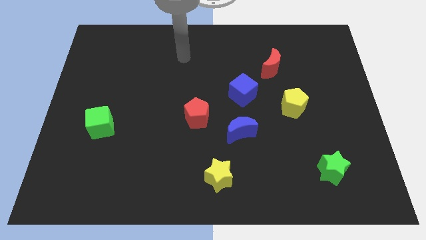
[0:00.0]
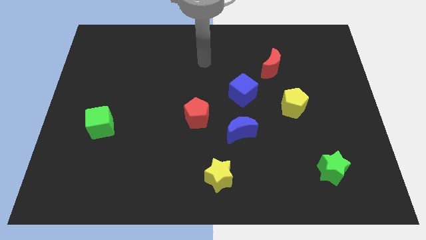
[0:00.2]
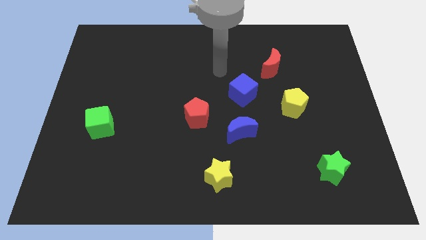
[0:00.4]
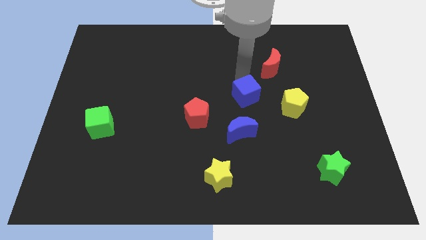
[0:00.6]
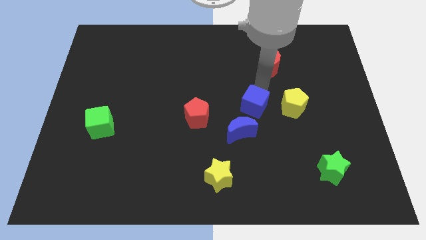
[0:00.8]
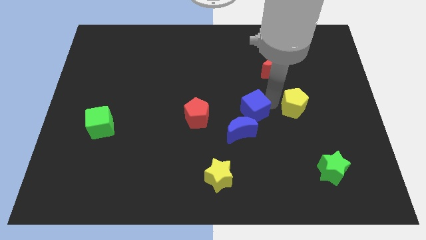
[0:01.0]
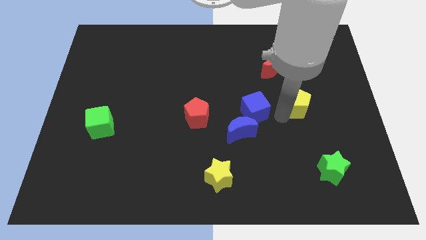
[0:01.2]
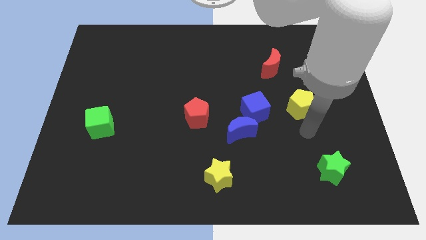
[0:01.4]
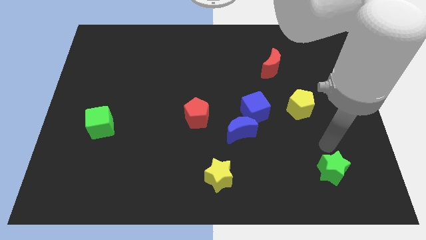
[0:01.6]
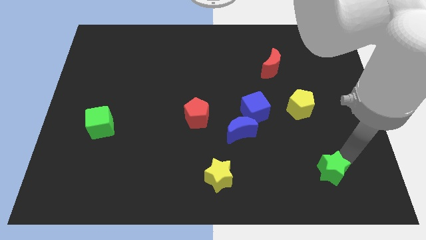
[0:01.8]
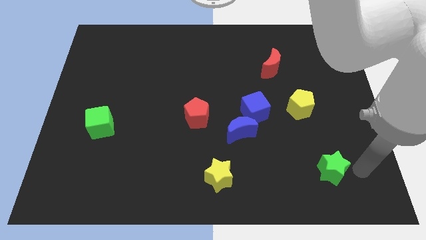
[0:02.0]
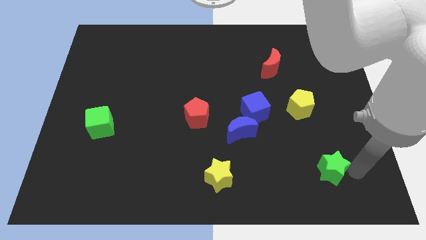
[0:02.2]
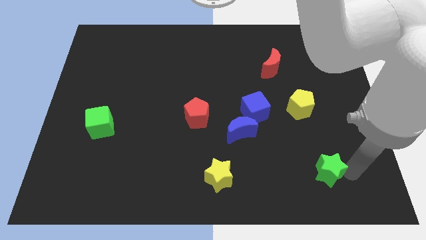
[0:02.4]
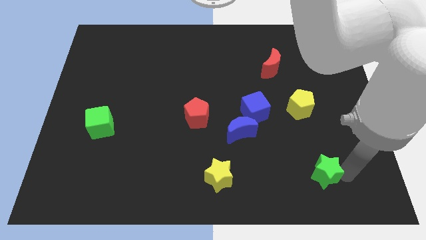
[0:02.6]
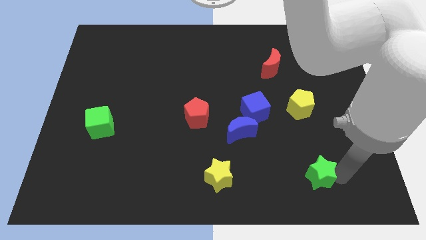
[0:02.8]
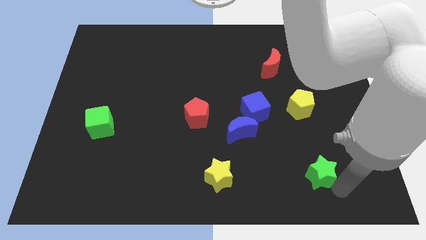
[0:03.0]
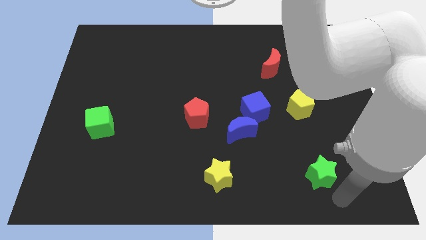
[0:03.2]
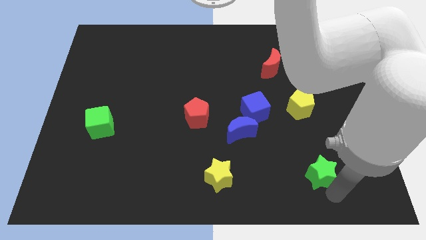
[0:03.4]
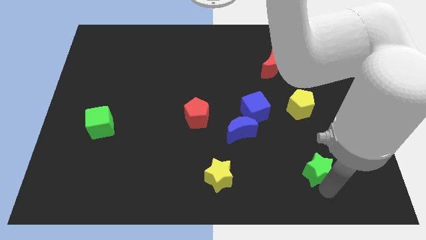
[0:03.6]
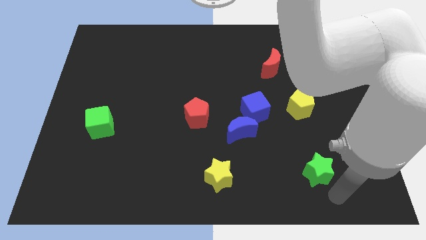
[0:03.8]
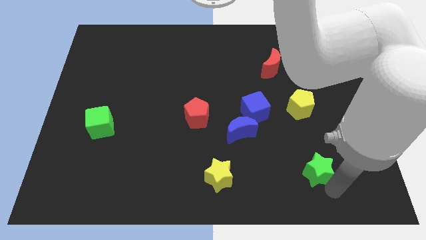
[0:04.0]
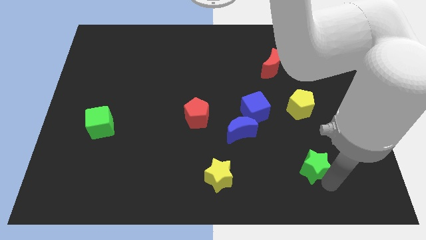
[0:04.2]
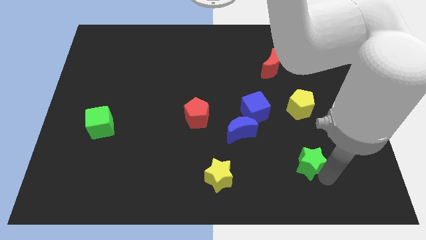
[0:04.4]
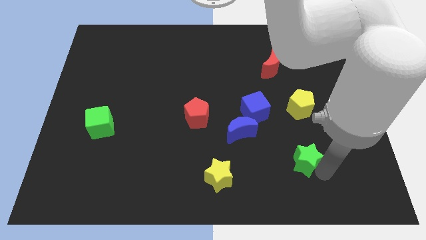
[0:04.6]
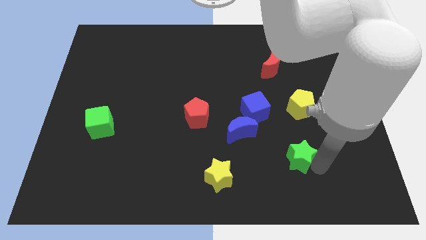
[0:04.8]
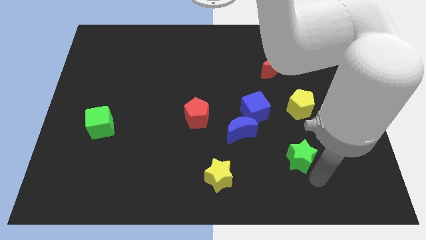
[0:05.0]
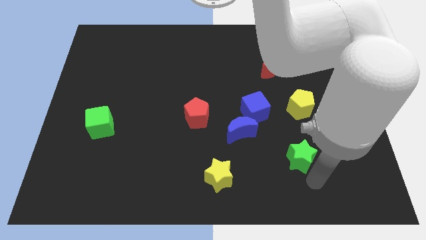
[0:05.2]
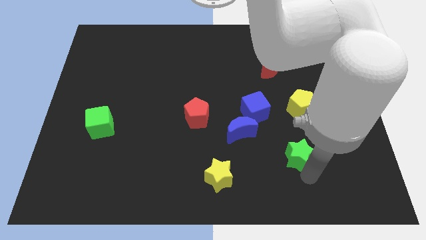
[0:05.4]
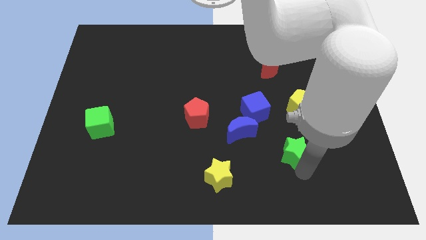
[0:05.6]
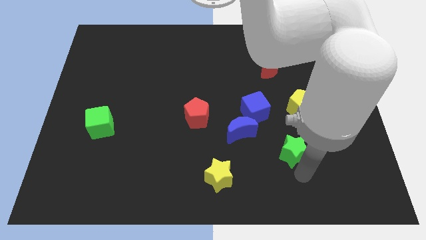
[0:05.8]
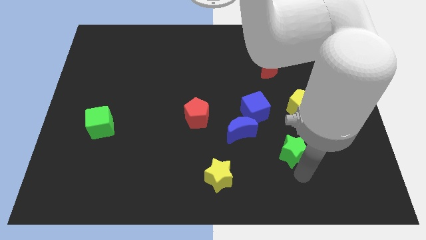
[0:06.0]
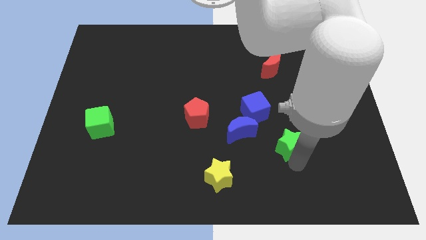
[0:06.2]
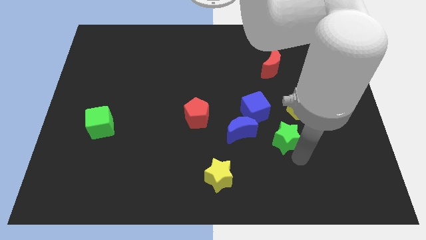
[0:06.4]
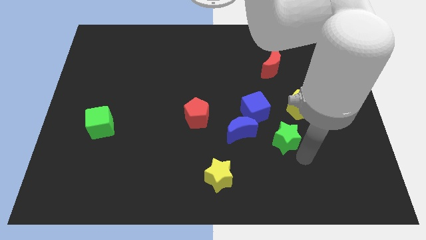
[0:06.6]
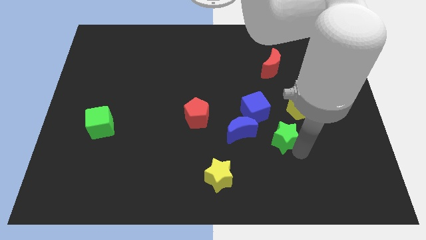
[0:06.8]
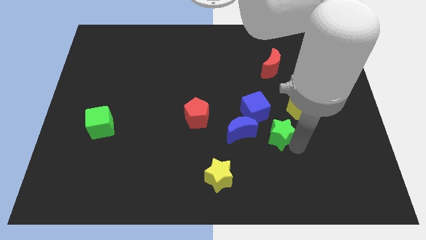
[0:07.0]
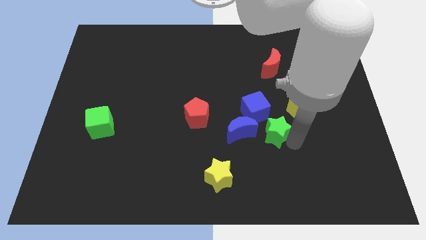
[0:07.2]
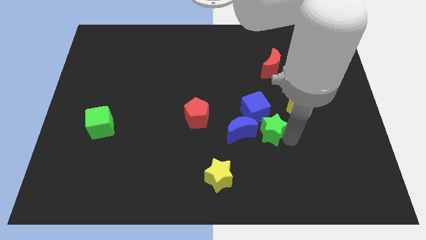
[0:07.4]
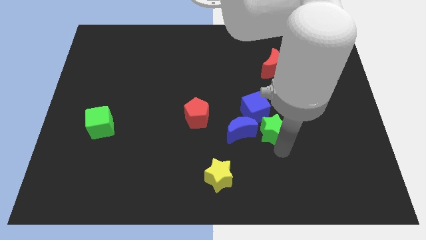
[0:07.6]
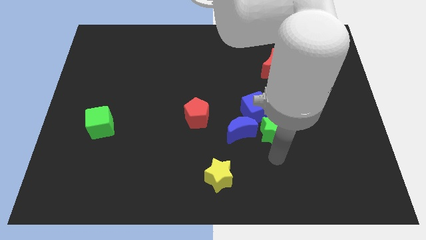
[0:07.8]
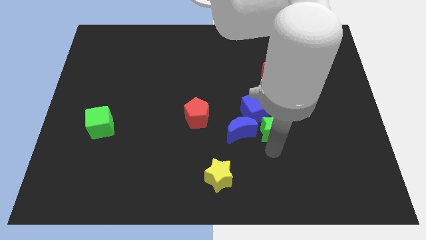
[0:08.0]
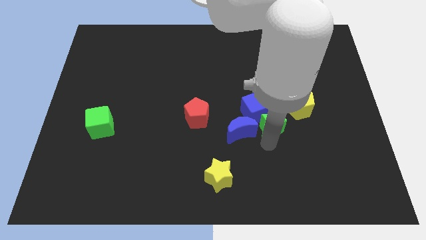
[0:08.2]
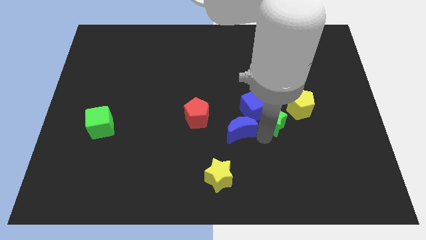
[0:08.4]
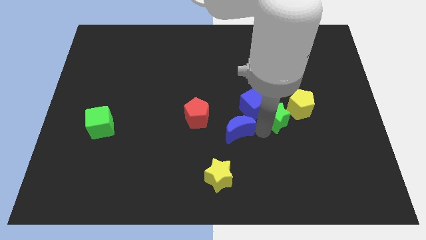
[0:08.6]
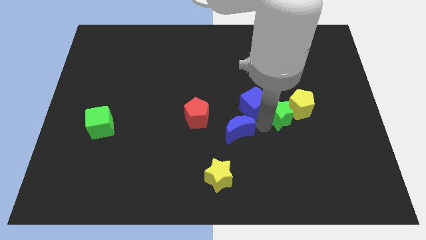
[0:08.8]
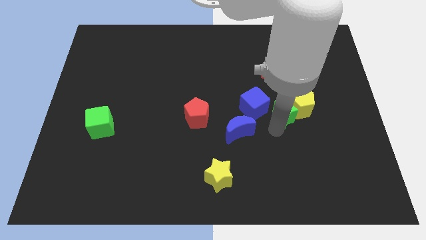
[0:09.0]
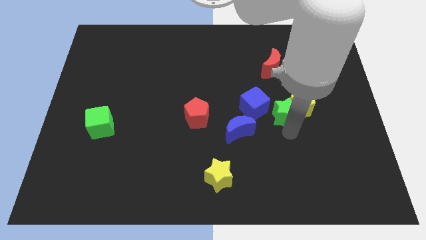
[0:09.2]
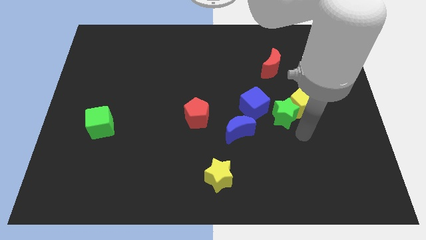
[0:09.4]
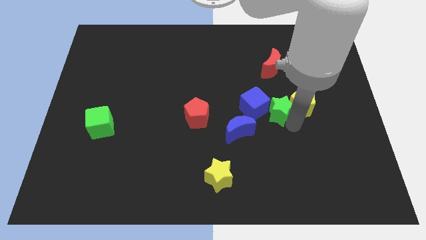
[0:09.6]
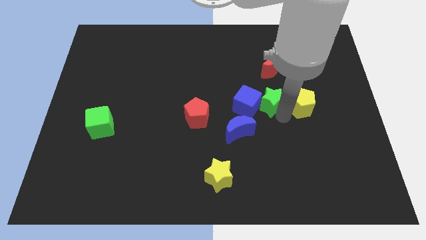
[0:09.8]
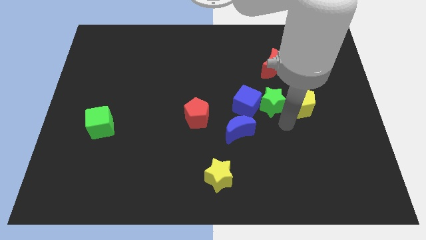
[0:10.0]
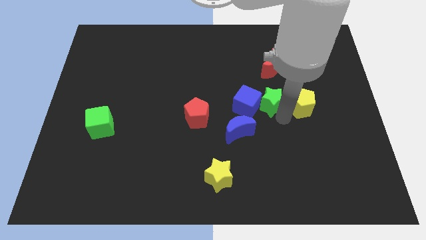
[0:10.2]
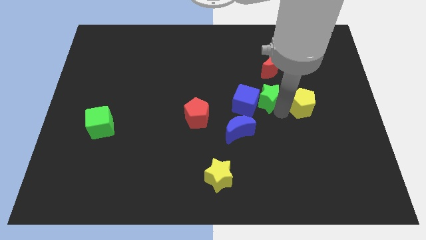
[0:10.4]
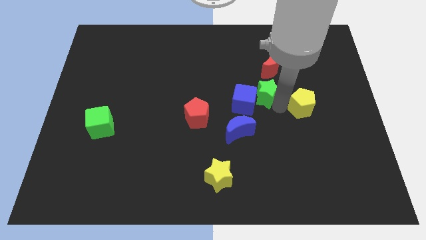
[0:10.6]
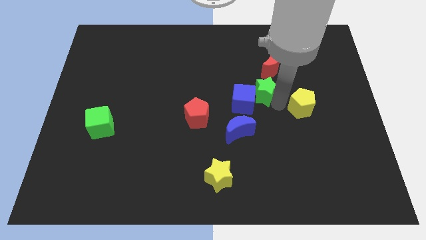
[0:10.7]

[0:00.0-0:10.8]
put the green star diagonally down and to the left of the red moon

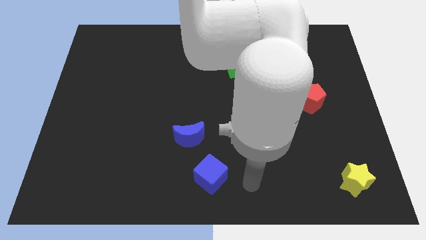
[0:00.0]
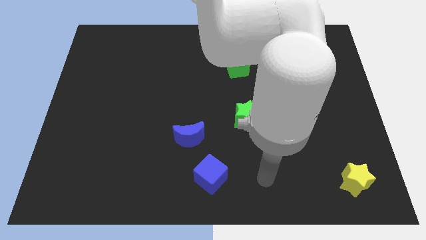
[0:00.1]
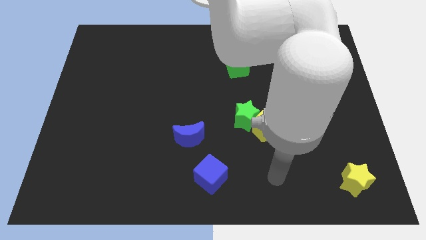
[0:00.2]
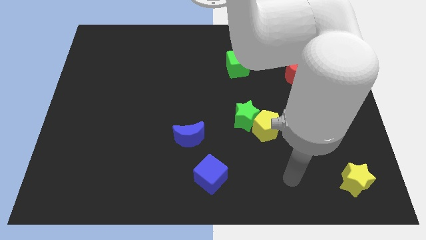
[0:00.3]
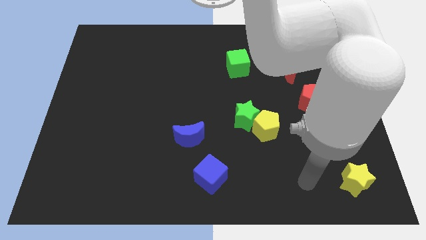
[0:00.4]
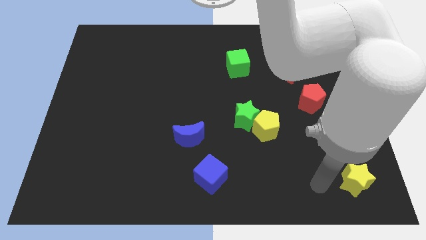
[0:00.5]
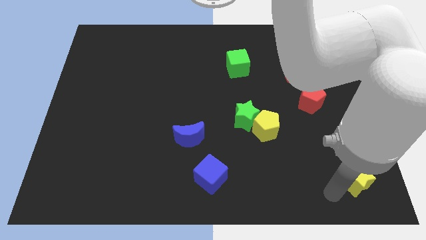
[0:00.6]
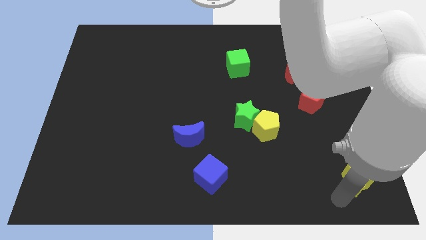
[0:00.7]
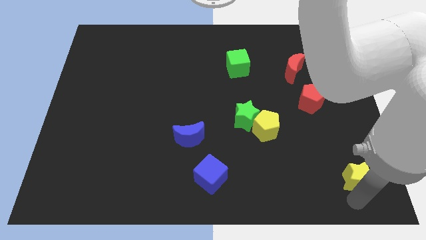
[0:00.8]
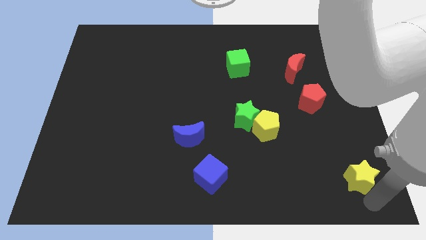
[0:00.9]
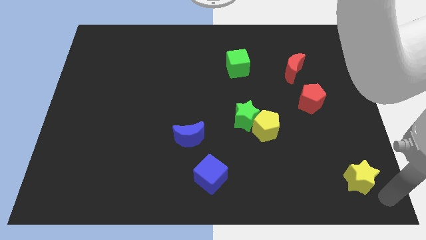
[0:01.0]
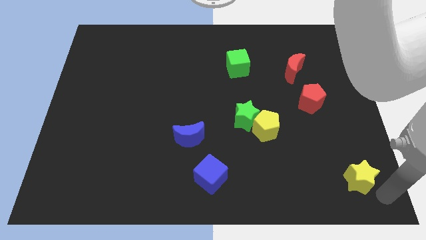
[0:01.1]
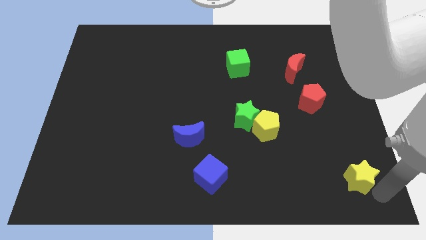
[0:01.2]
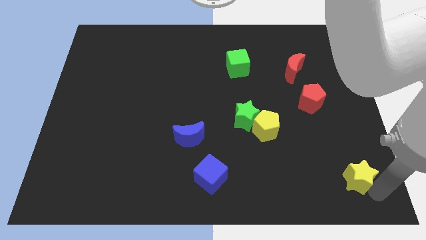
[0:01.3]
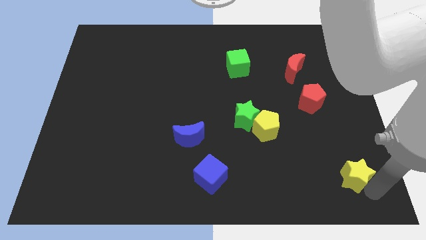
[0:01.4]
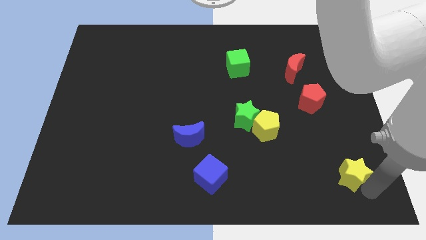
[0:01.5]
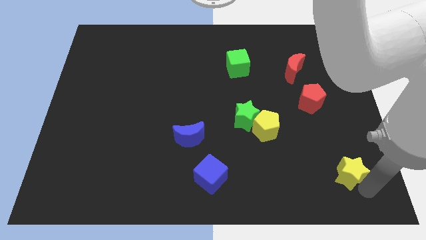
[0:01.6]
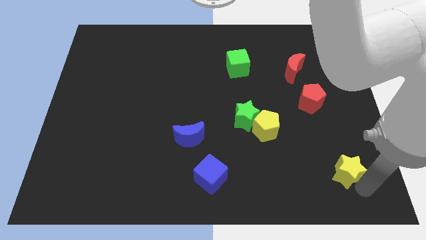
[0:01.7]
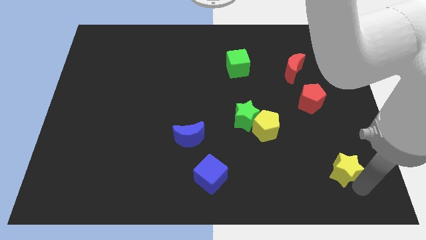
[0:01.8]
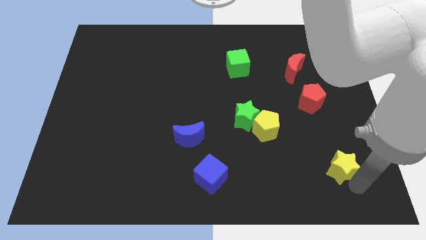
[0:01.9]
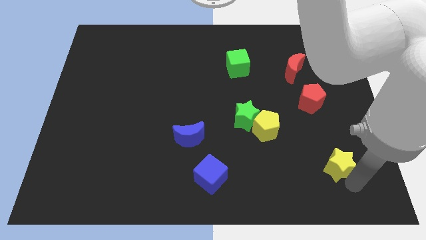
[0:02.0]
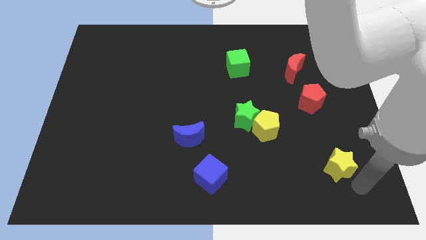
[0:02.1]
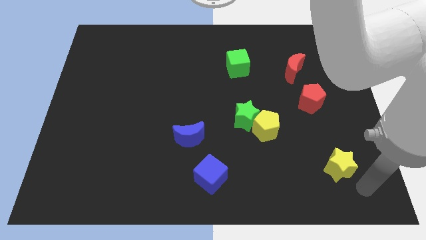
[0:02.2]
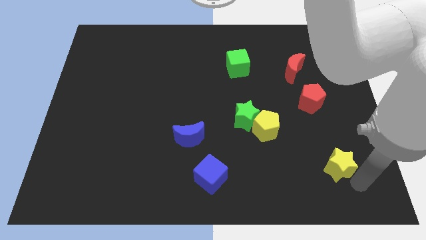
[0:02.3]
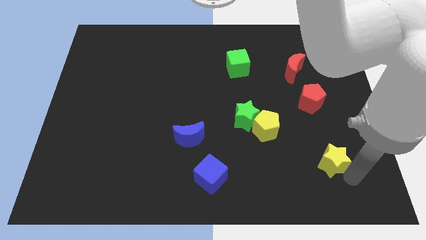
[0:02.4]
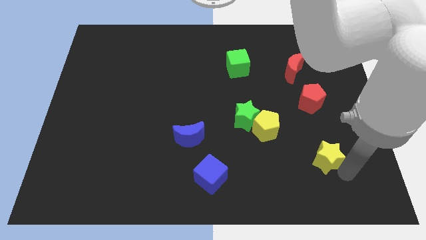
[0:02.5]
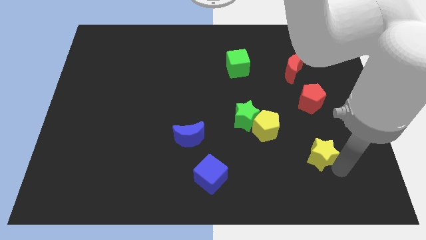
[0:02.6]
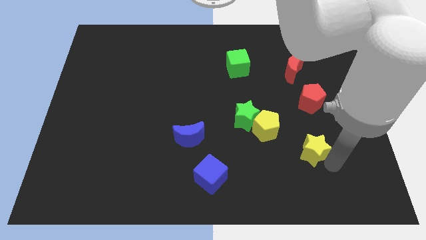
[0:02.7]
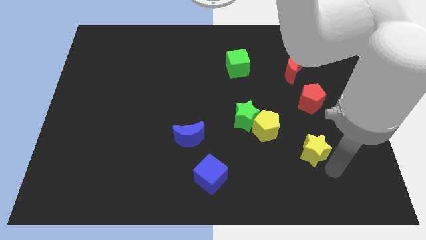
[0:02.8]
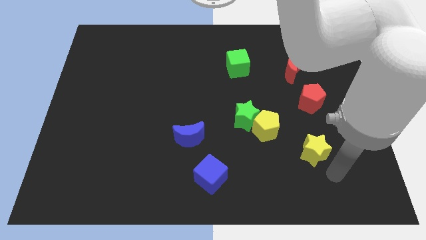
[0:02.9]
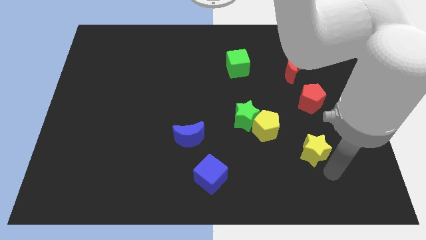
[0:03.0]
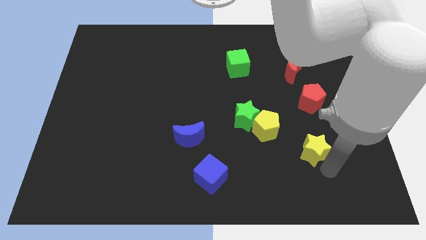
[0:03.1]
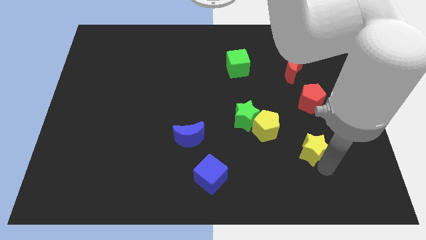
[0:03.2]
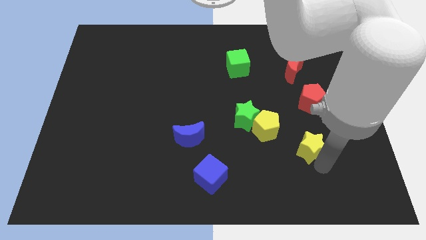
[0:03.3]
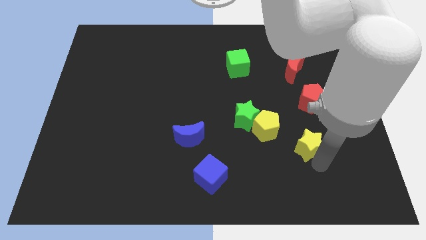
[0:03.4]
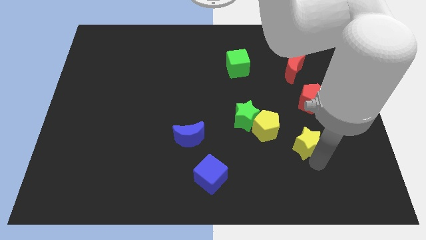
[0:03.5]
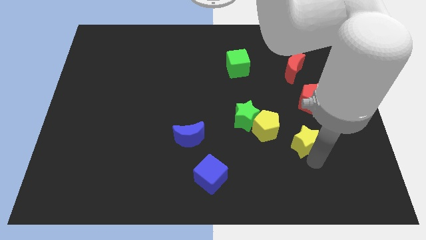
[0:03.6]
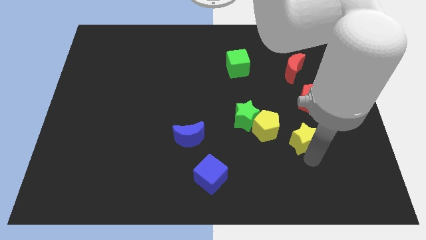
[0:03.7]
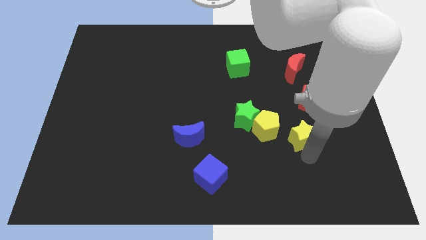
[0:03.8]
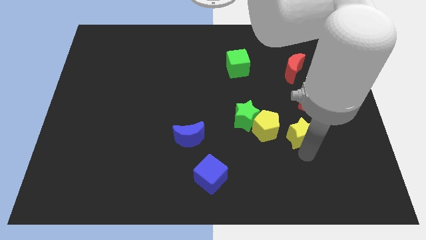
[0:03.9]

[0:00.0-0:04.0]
push the yellow star to the bottom left of the red pentagon
